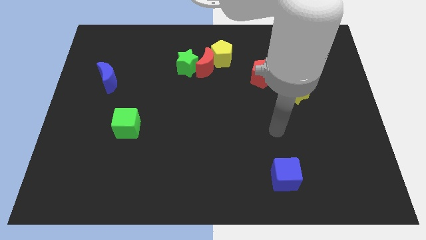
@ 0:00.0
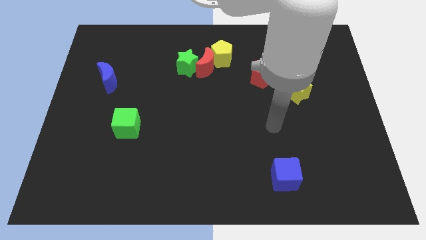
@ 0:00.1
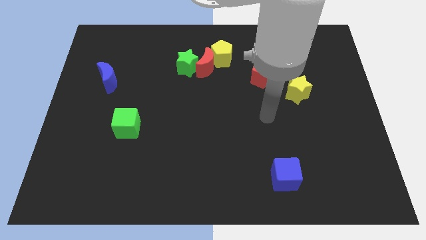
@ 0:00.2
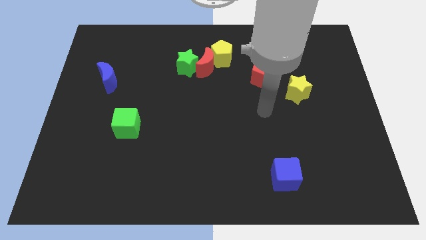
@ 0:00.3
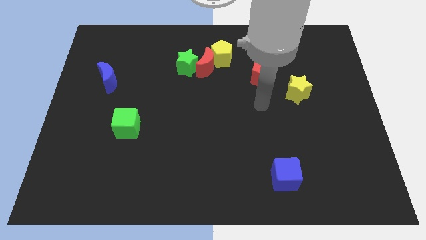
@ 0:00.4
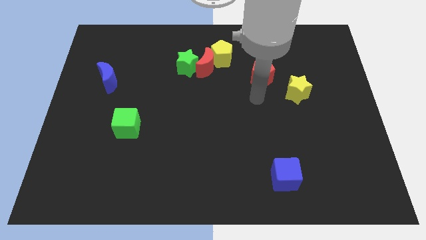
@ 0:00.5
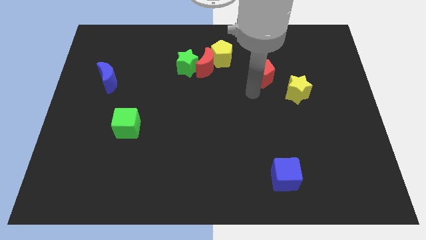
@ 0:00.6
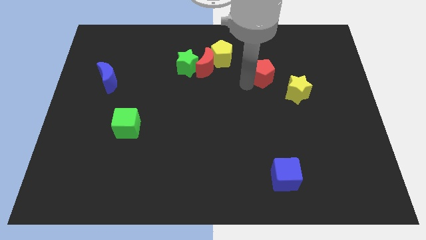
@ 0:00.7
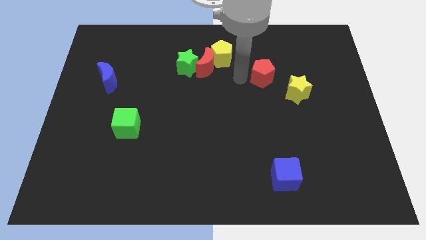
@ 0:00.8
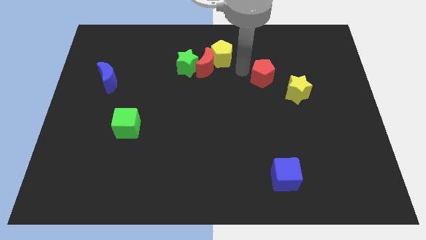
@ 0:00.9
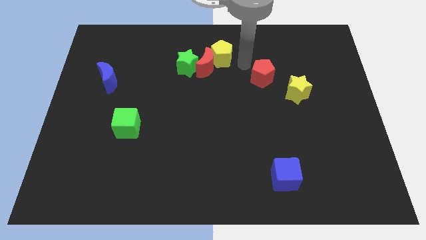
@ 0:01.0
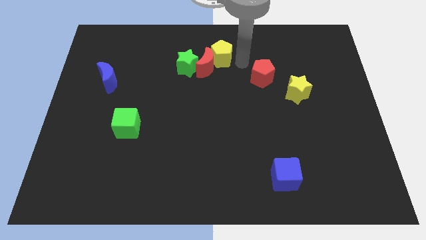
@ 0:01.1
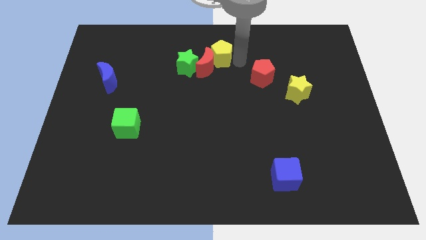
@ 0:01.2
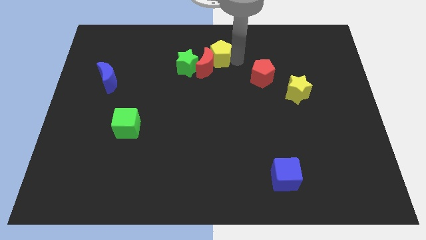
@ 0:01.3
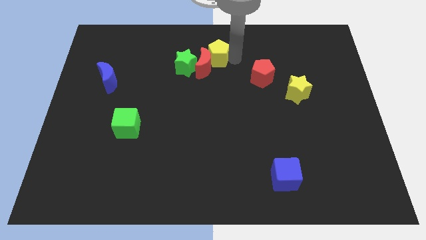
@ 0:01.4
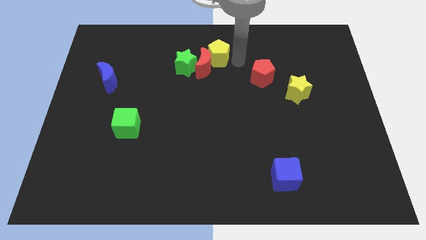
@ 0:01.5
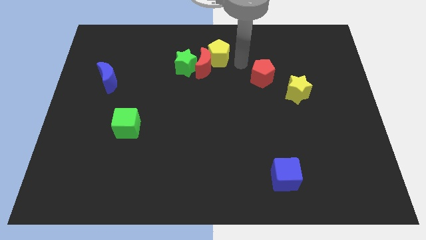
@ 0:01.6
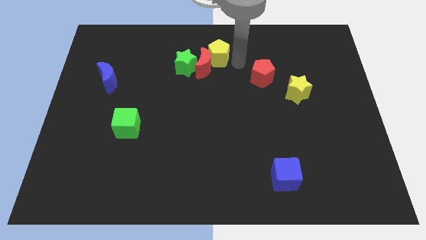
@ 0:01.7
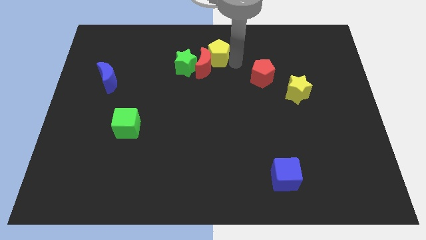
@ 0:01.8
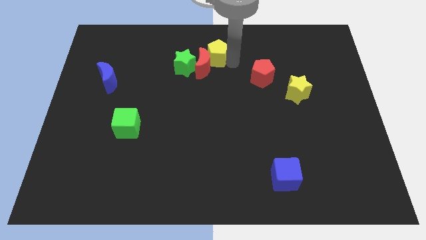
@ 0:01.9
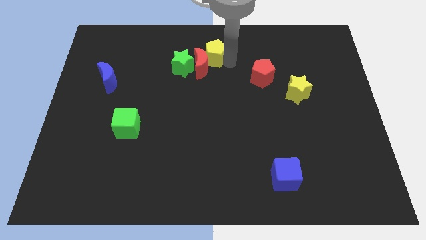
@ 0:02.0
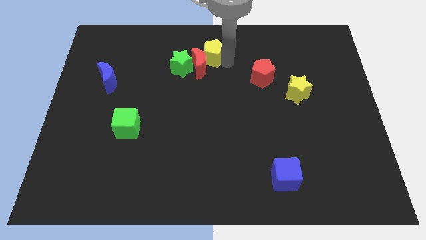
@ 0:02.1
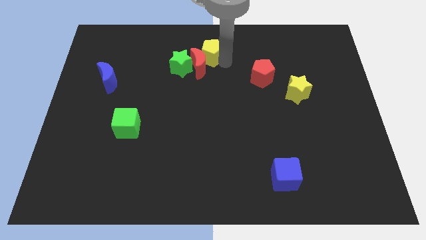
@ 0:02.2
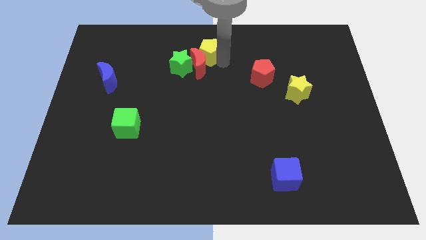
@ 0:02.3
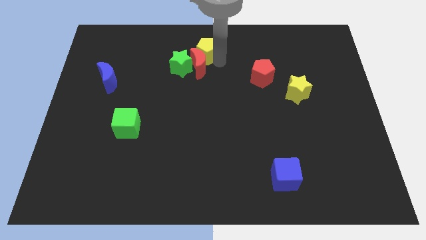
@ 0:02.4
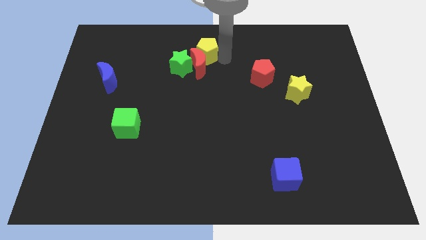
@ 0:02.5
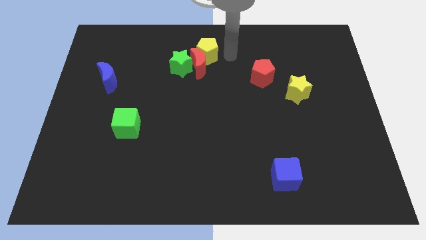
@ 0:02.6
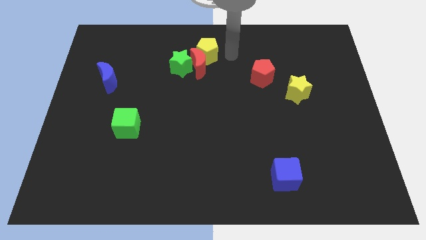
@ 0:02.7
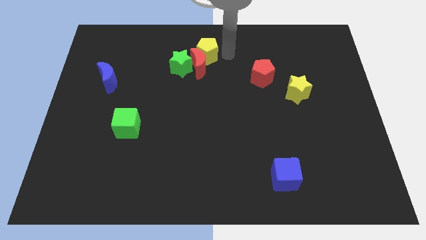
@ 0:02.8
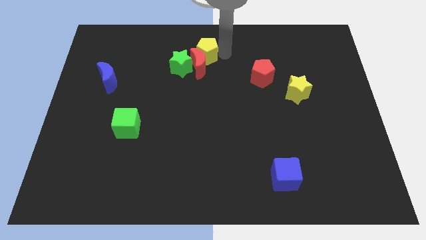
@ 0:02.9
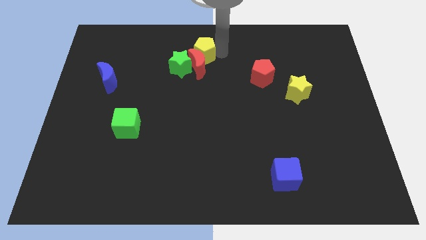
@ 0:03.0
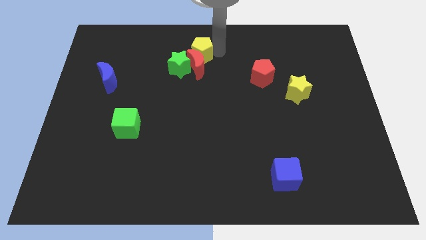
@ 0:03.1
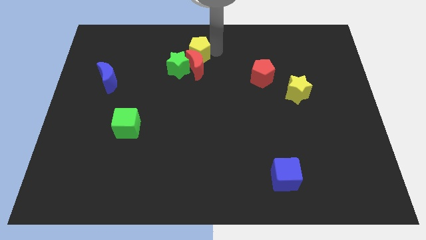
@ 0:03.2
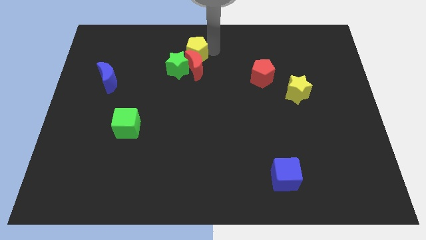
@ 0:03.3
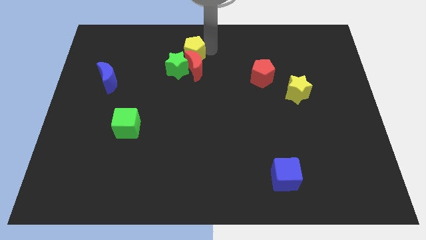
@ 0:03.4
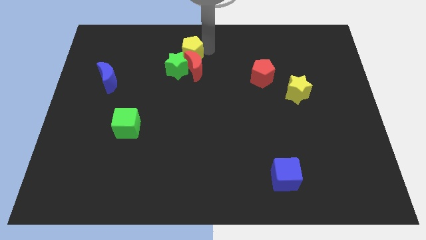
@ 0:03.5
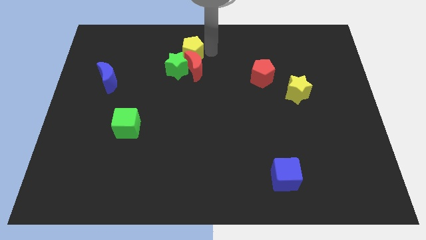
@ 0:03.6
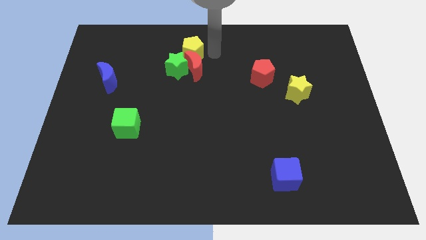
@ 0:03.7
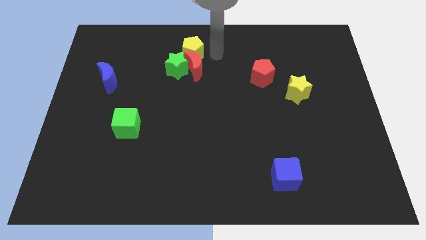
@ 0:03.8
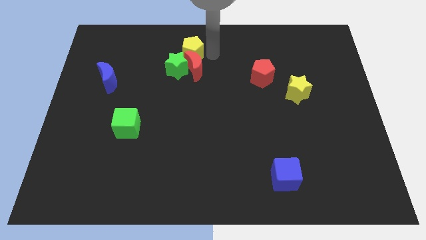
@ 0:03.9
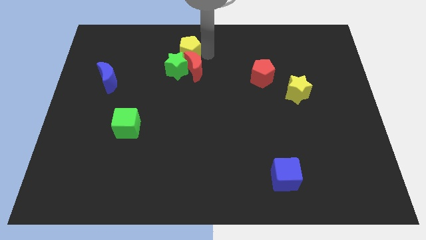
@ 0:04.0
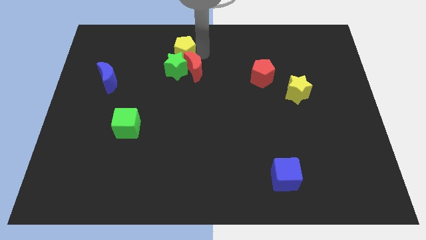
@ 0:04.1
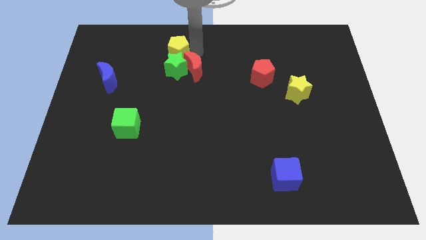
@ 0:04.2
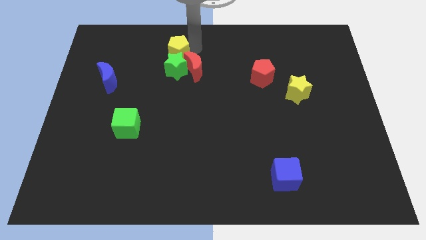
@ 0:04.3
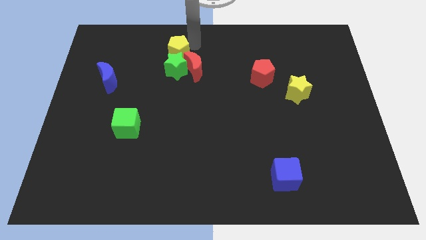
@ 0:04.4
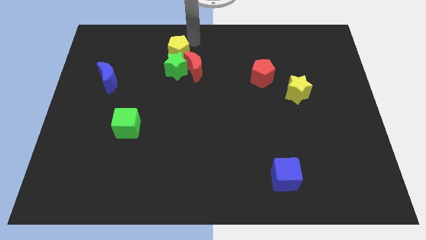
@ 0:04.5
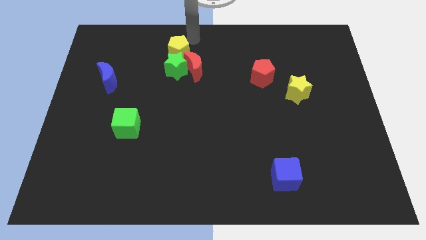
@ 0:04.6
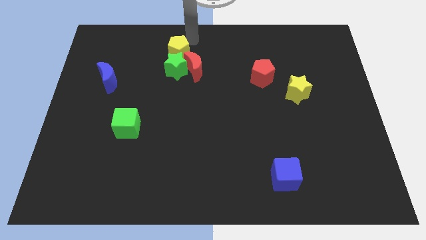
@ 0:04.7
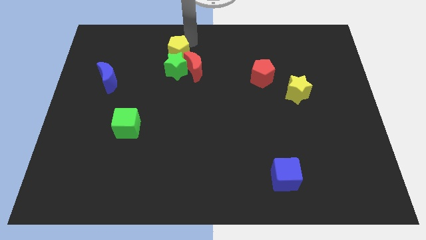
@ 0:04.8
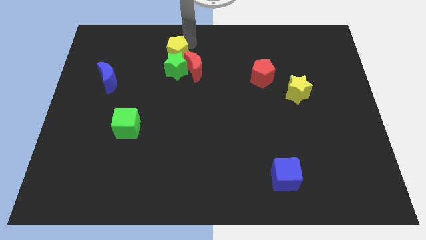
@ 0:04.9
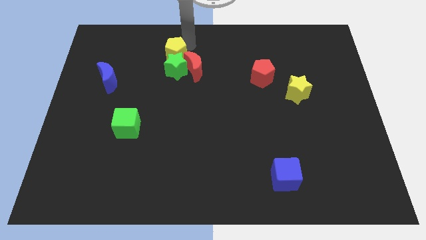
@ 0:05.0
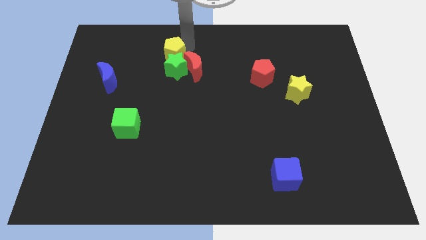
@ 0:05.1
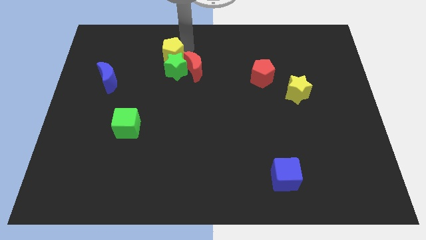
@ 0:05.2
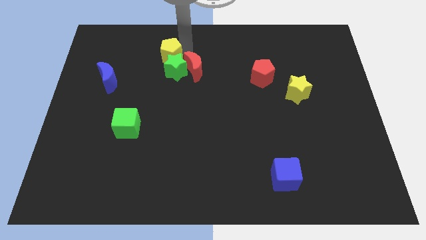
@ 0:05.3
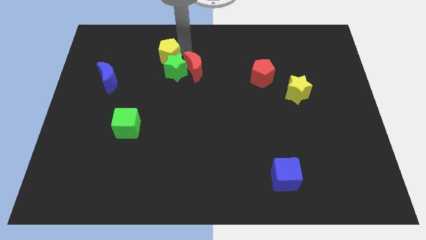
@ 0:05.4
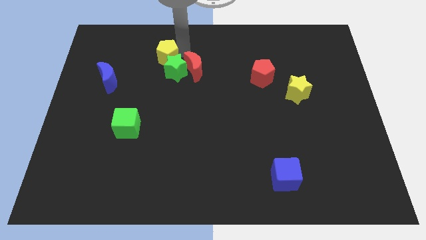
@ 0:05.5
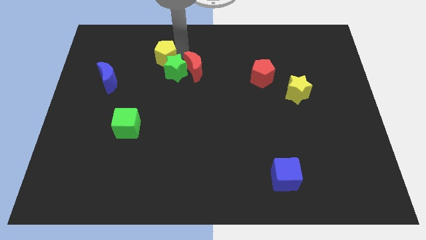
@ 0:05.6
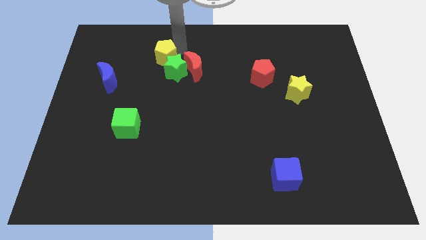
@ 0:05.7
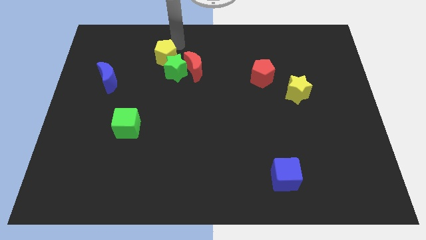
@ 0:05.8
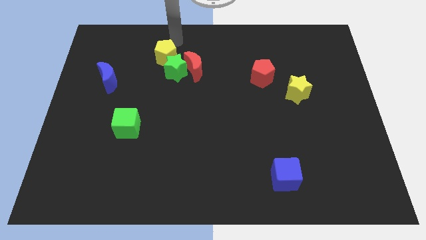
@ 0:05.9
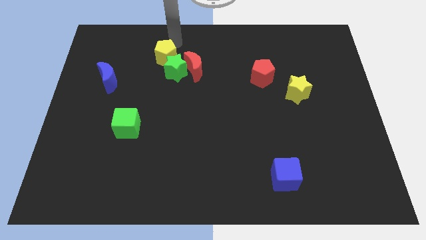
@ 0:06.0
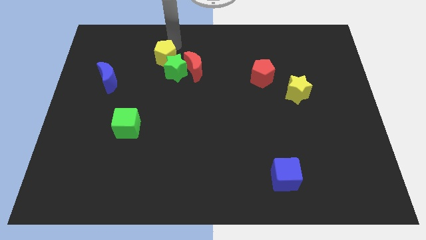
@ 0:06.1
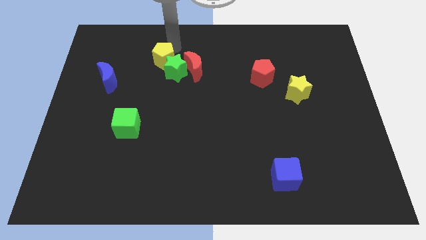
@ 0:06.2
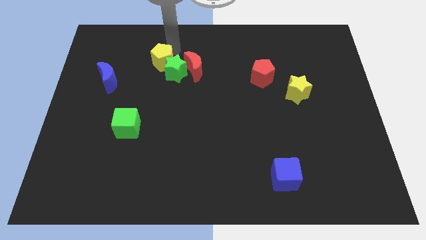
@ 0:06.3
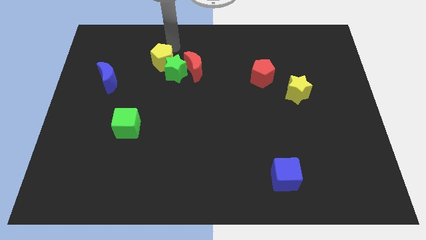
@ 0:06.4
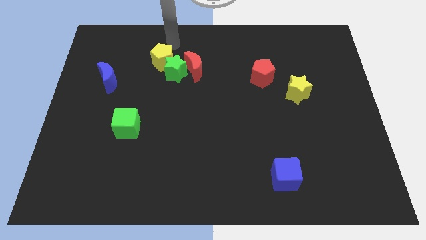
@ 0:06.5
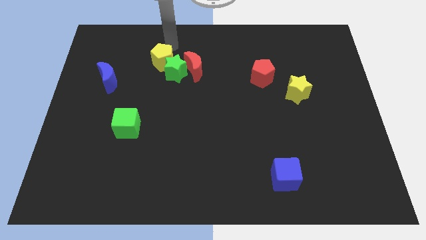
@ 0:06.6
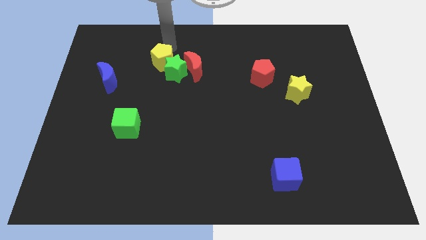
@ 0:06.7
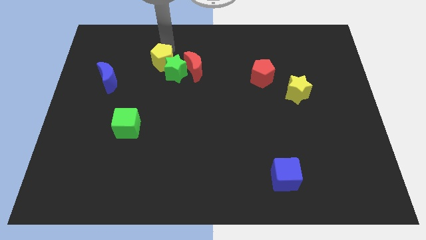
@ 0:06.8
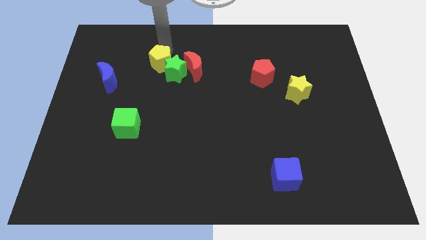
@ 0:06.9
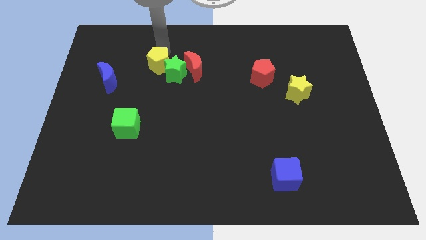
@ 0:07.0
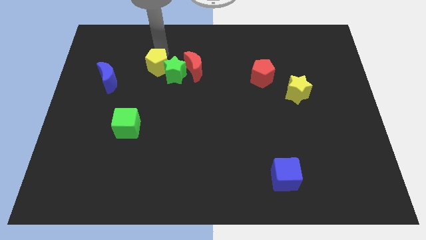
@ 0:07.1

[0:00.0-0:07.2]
push the yellow pentagon right of the blue moon
